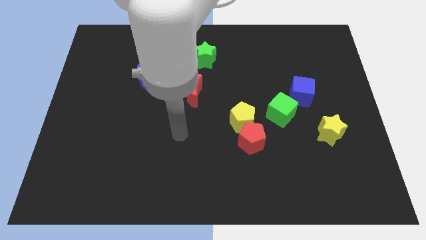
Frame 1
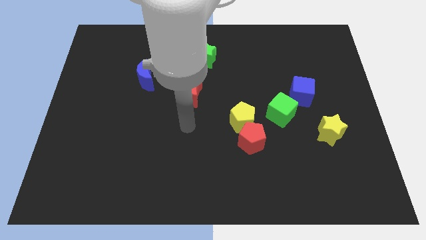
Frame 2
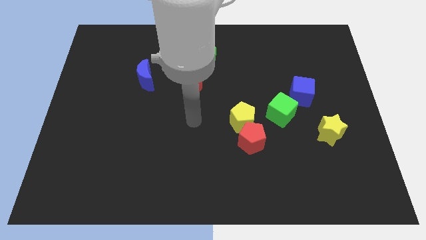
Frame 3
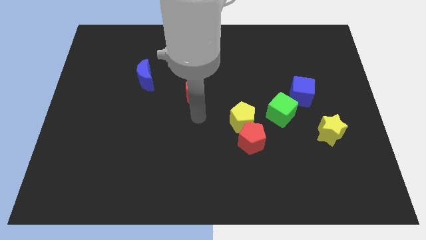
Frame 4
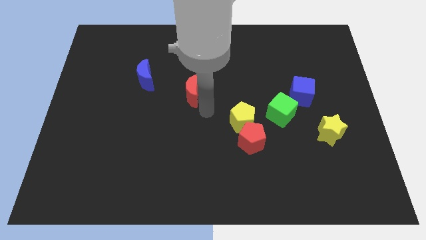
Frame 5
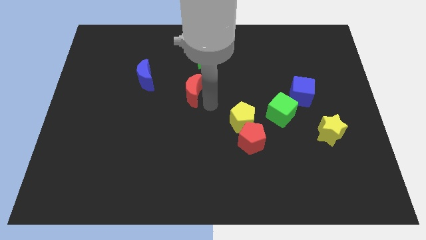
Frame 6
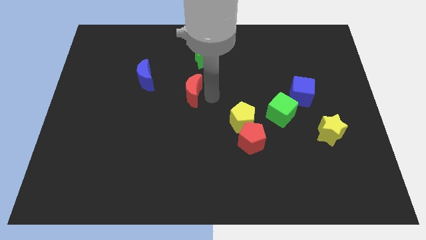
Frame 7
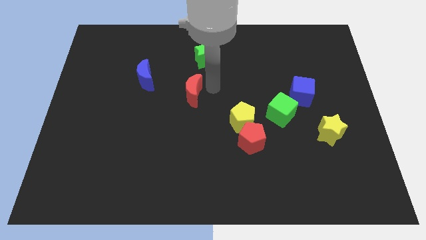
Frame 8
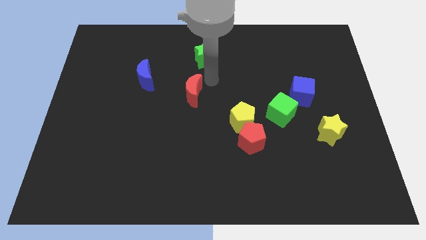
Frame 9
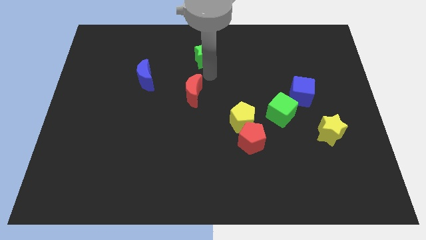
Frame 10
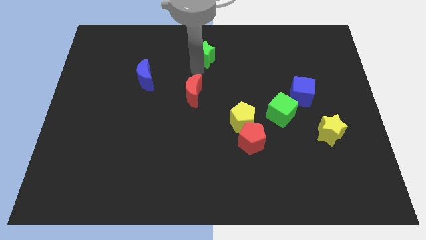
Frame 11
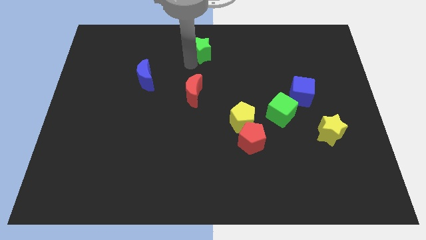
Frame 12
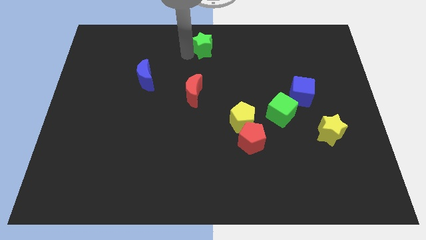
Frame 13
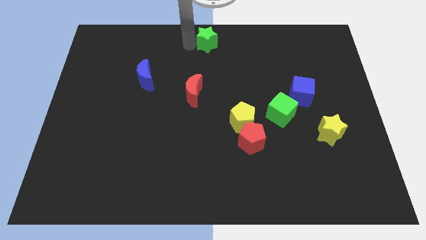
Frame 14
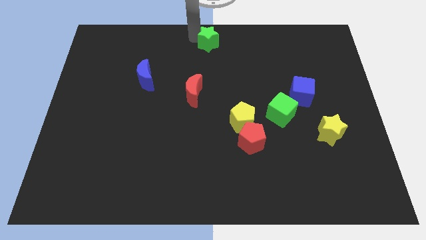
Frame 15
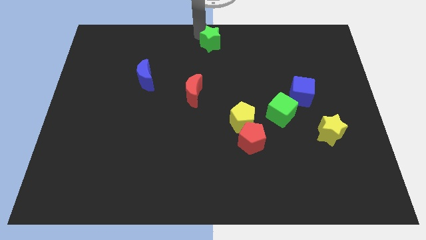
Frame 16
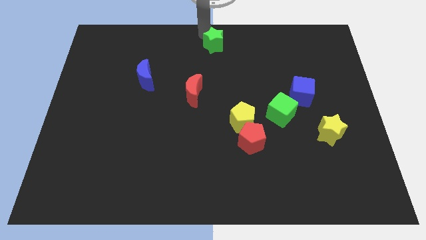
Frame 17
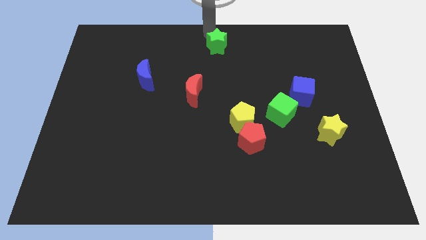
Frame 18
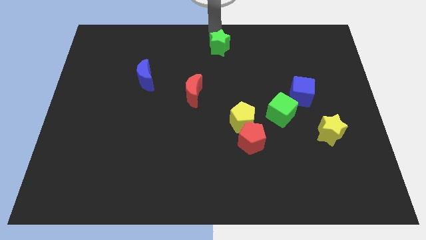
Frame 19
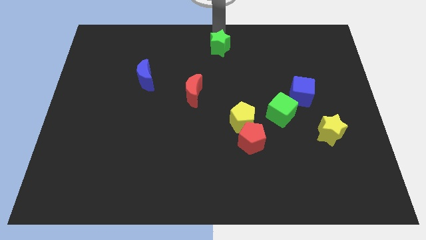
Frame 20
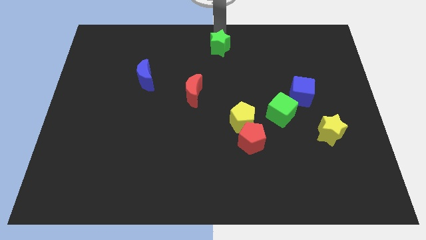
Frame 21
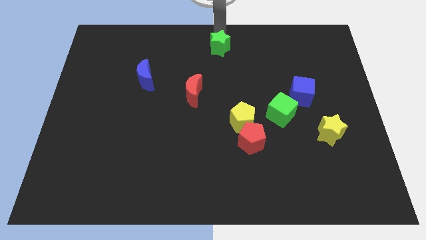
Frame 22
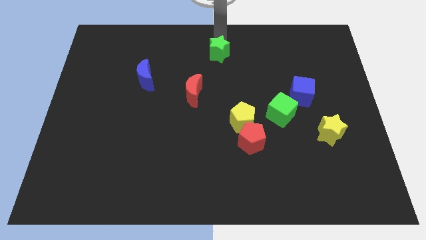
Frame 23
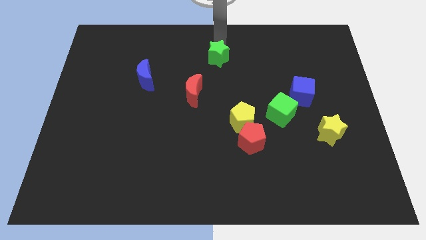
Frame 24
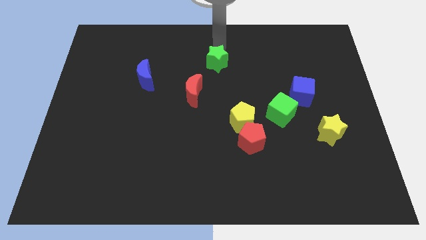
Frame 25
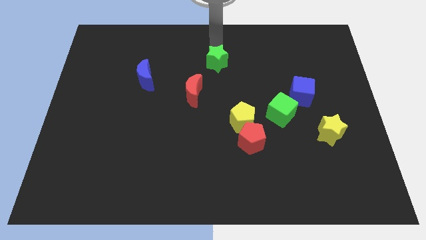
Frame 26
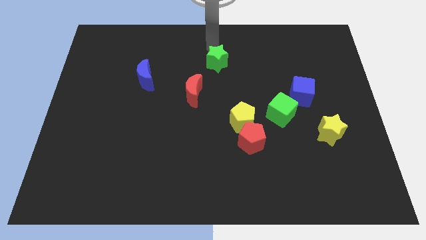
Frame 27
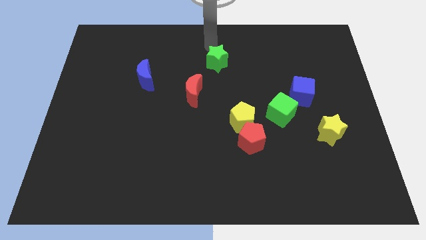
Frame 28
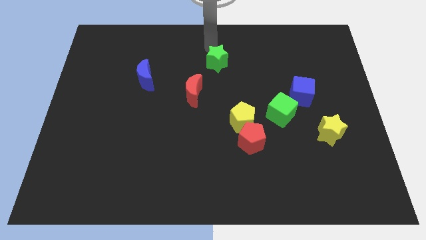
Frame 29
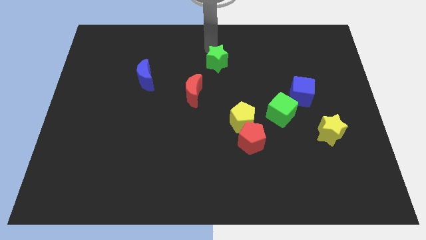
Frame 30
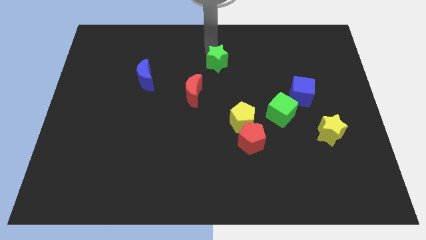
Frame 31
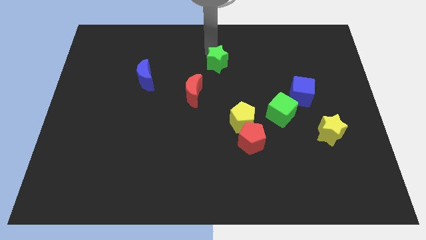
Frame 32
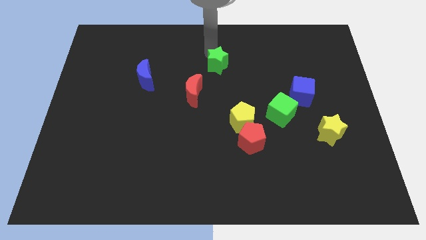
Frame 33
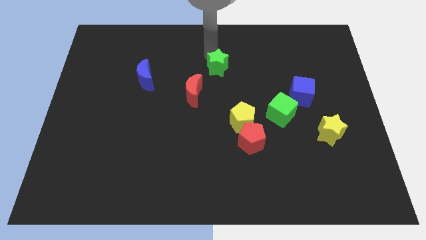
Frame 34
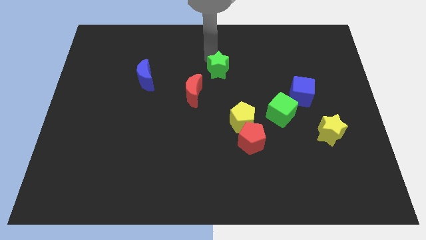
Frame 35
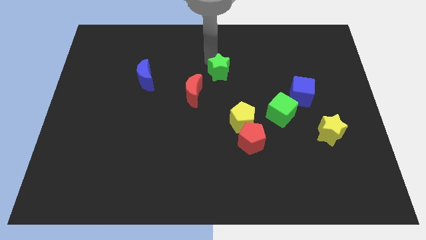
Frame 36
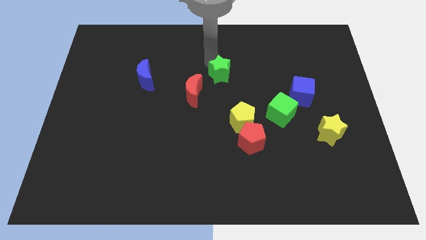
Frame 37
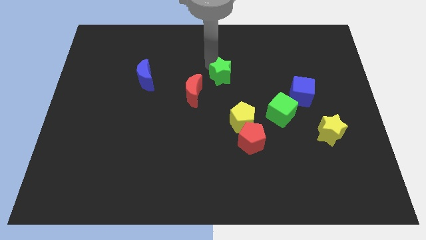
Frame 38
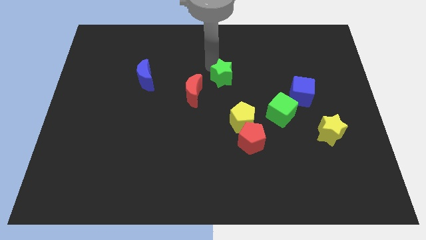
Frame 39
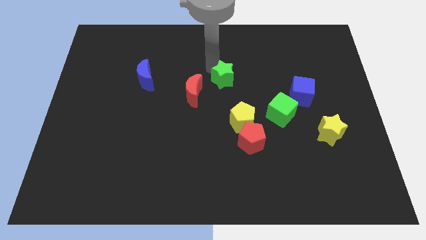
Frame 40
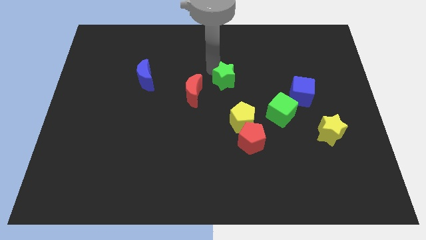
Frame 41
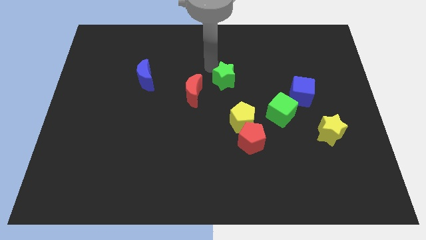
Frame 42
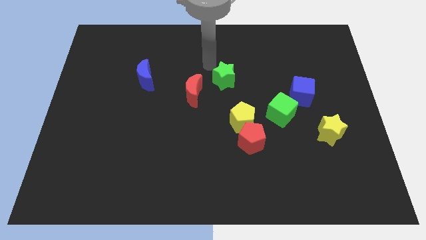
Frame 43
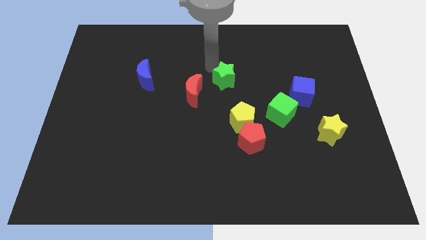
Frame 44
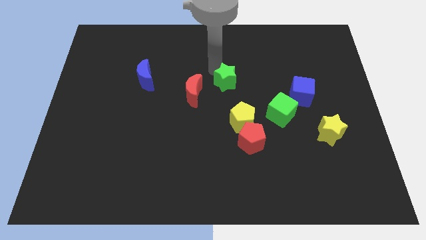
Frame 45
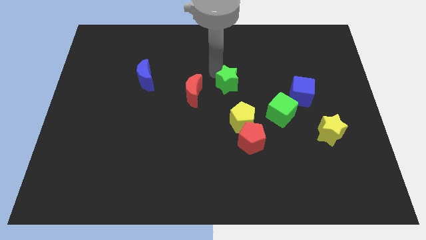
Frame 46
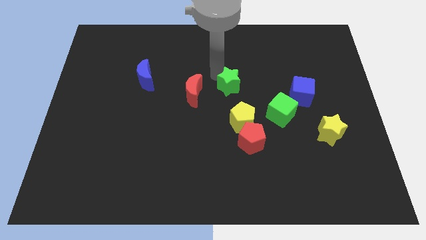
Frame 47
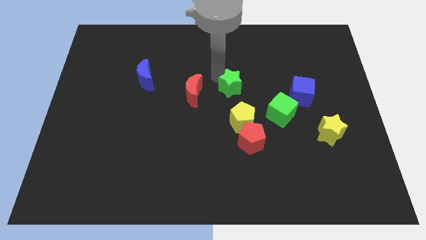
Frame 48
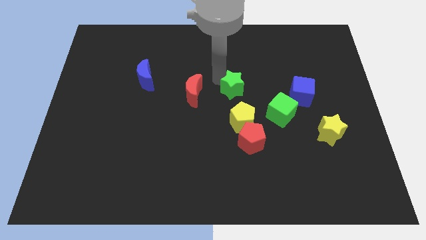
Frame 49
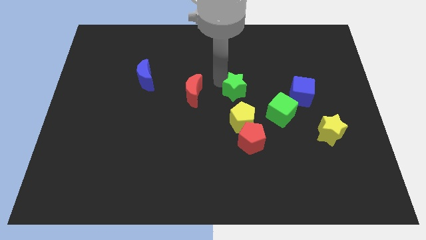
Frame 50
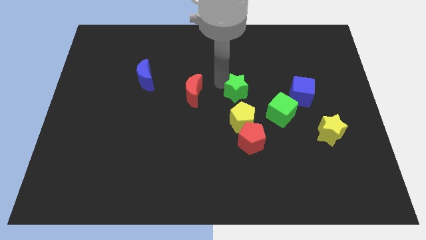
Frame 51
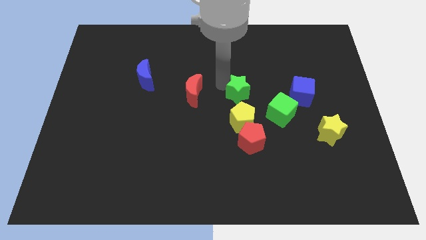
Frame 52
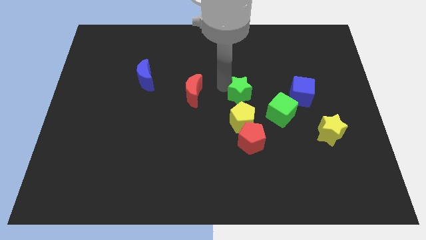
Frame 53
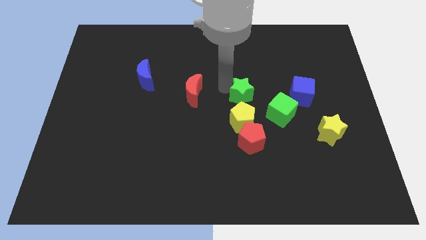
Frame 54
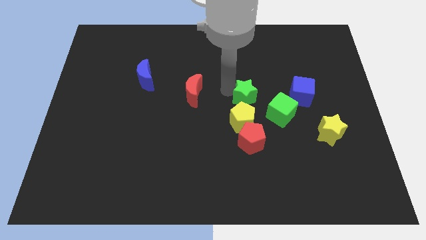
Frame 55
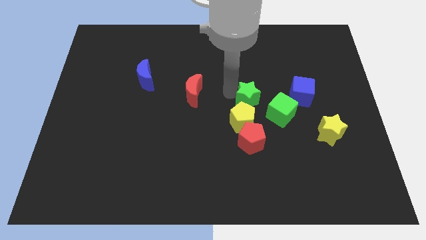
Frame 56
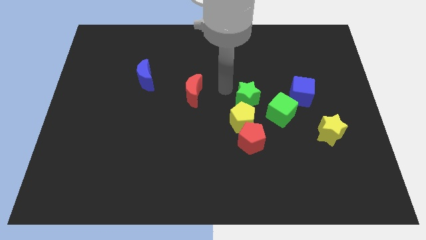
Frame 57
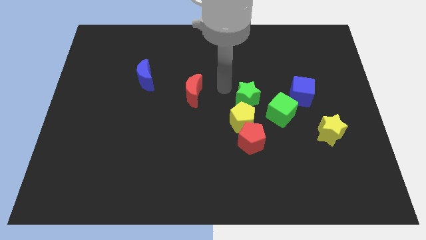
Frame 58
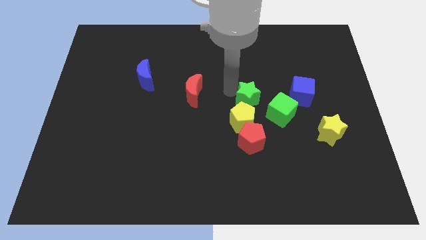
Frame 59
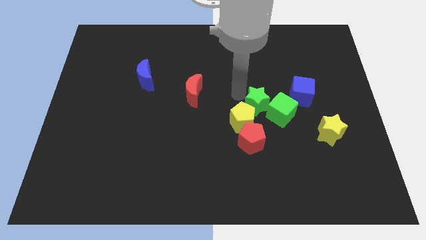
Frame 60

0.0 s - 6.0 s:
slide the green star to the green cube

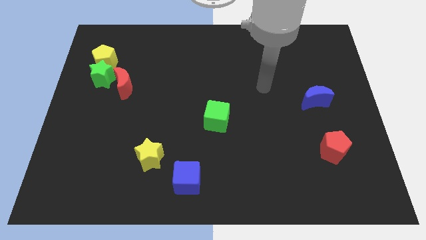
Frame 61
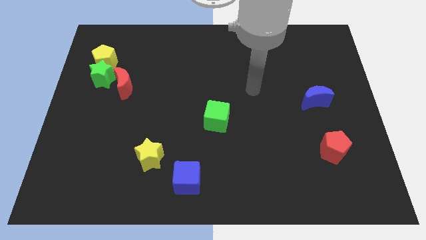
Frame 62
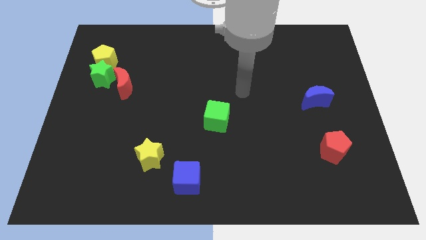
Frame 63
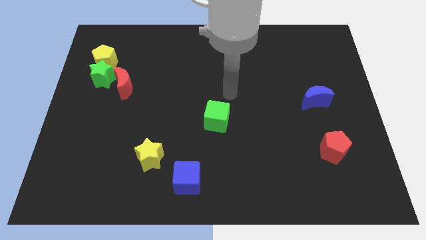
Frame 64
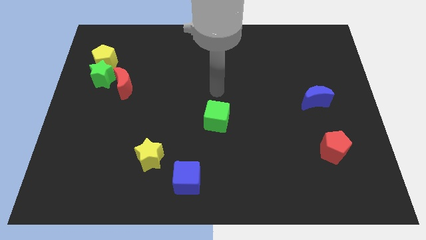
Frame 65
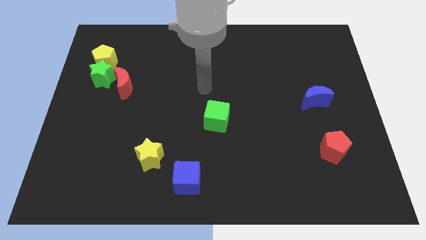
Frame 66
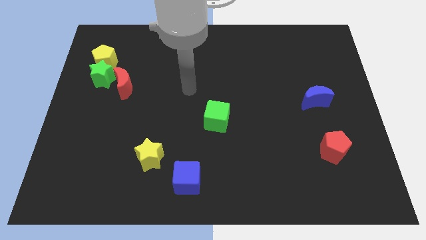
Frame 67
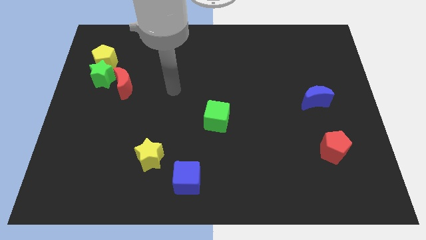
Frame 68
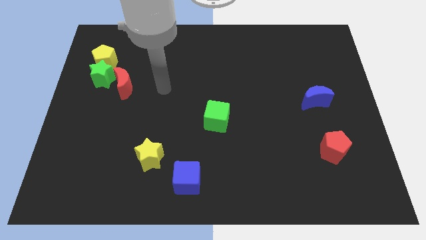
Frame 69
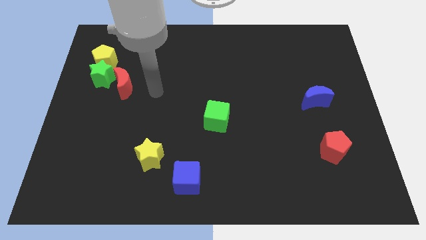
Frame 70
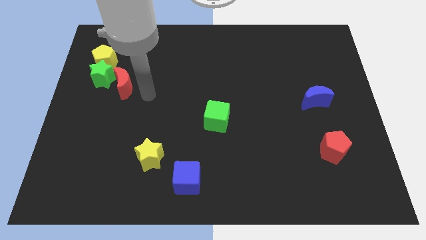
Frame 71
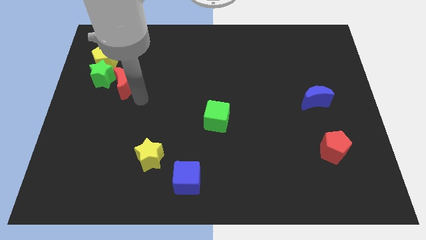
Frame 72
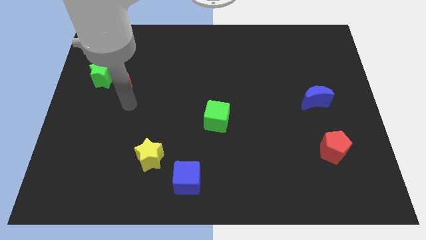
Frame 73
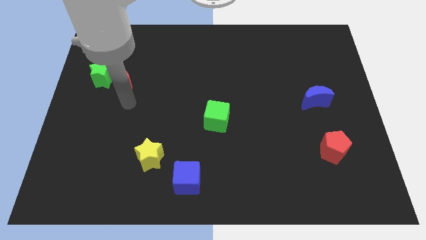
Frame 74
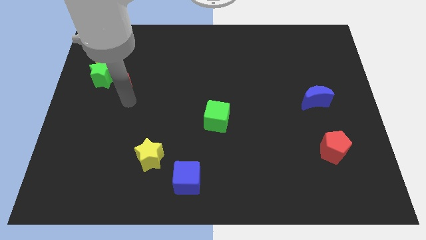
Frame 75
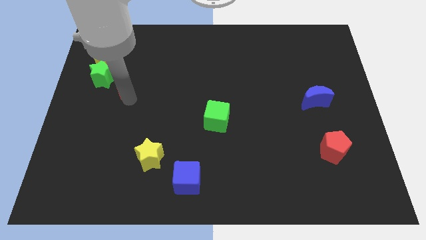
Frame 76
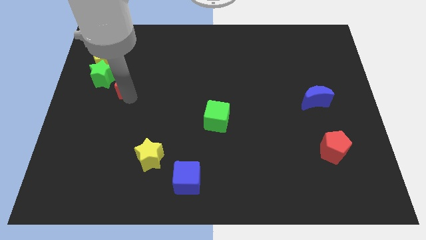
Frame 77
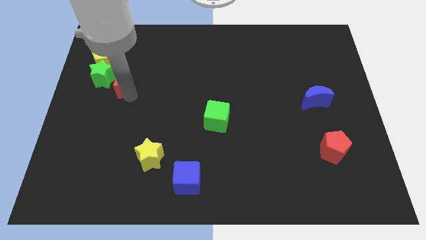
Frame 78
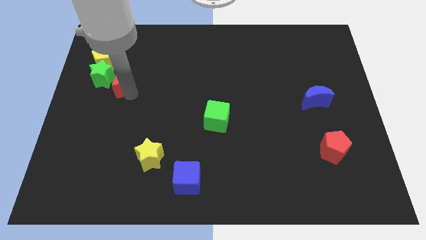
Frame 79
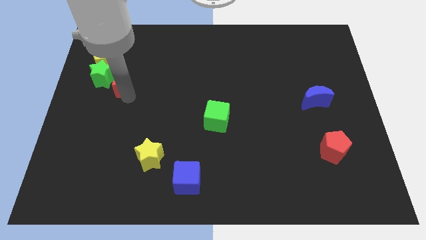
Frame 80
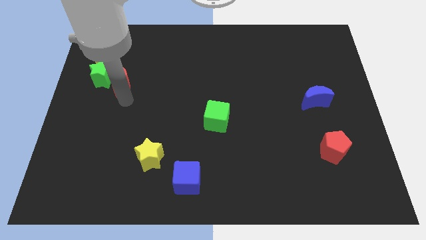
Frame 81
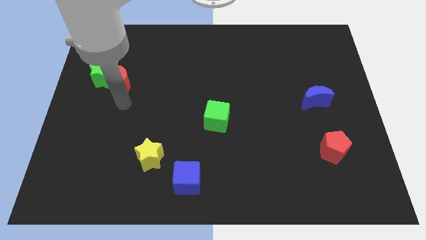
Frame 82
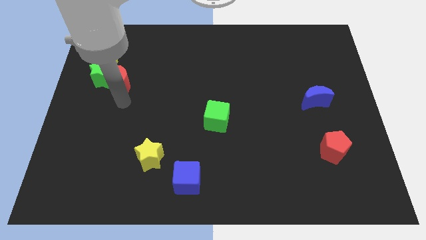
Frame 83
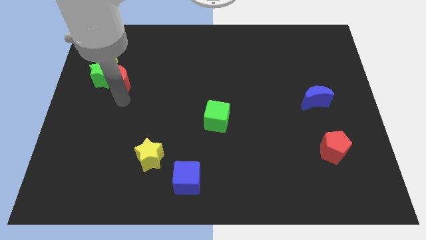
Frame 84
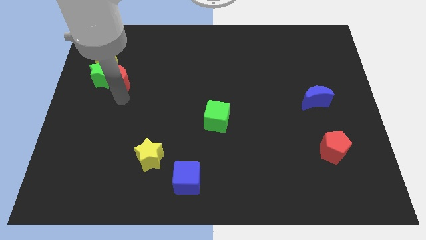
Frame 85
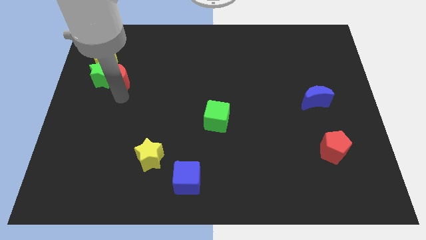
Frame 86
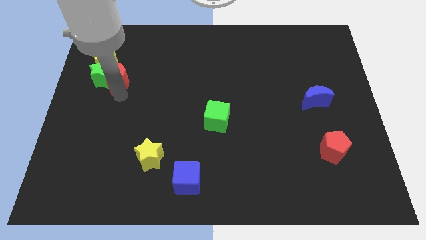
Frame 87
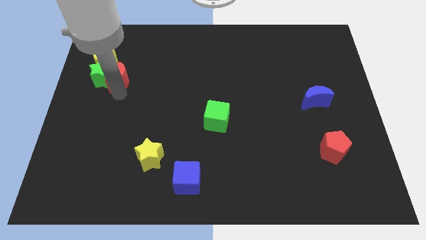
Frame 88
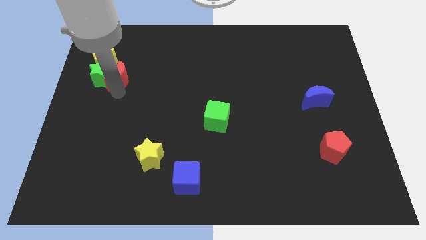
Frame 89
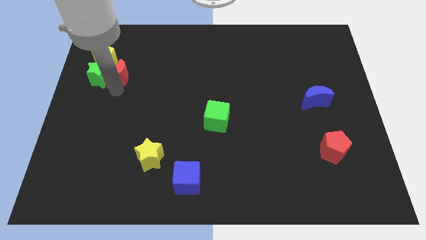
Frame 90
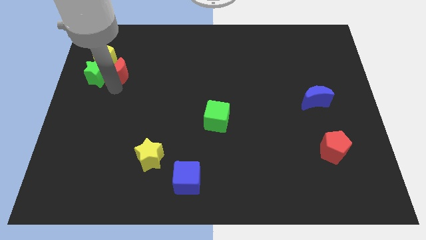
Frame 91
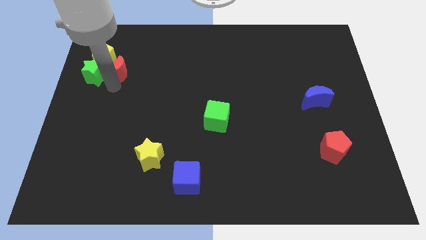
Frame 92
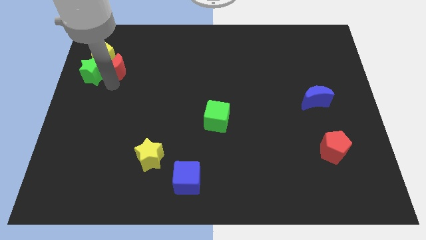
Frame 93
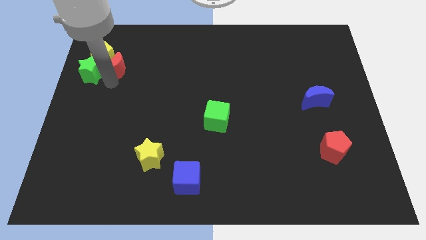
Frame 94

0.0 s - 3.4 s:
put the red moon next to the yellow pentagon
